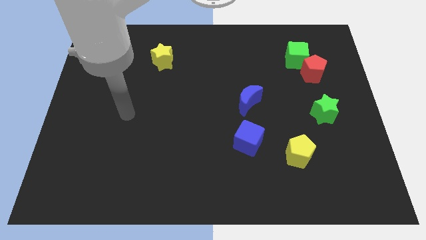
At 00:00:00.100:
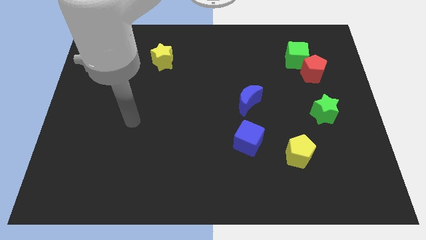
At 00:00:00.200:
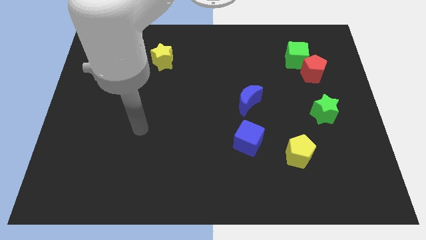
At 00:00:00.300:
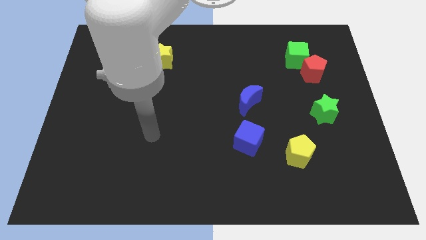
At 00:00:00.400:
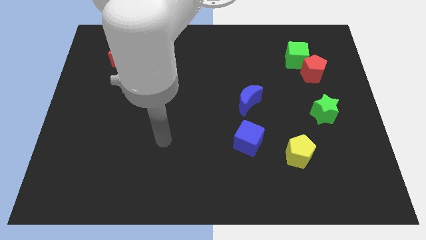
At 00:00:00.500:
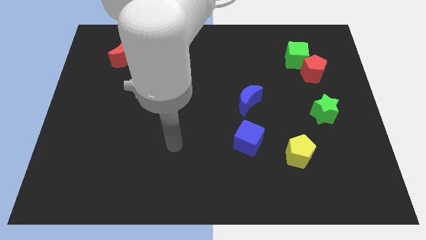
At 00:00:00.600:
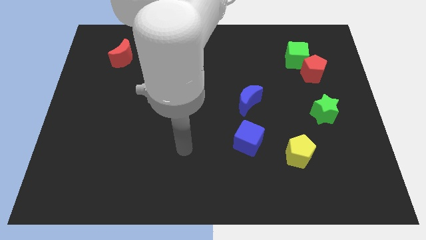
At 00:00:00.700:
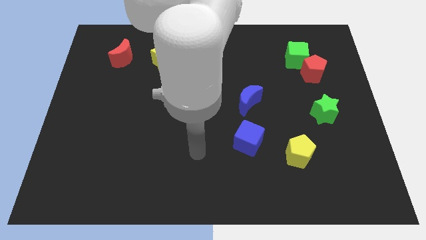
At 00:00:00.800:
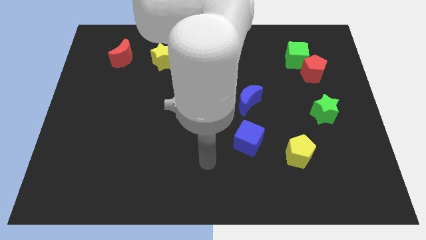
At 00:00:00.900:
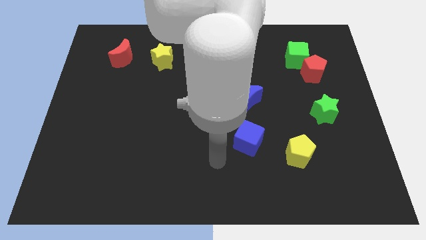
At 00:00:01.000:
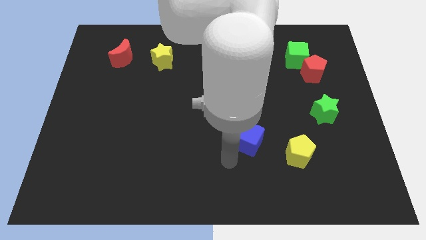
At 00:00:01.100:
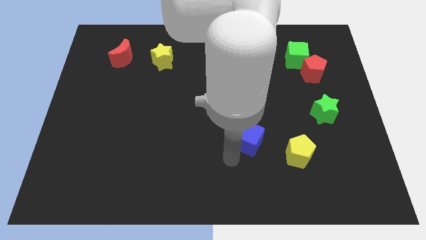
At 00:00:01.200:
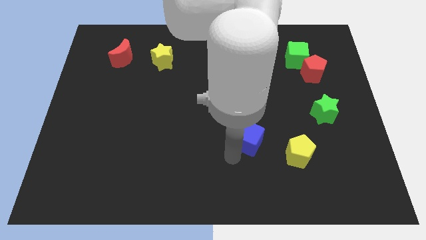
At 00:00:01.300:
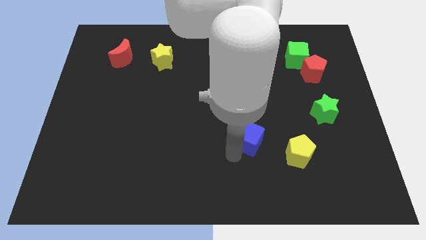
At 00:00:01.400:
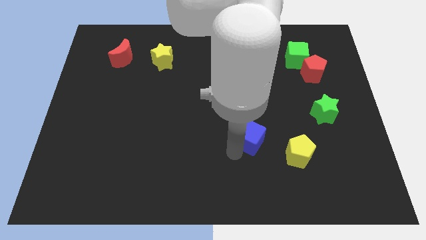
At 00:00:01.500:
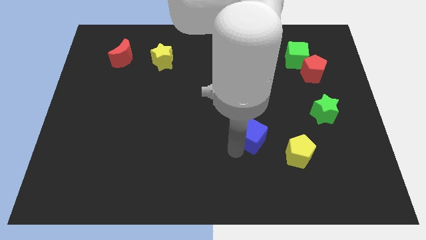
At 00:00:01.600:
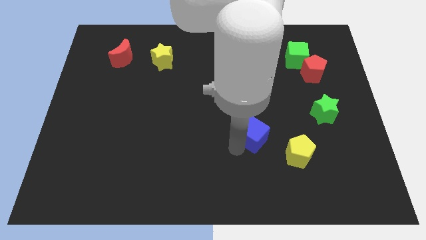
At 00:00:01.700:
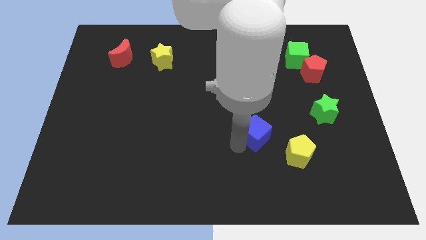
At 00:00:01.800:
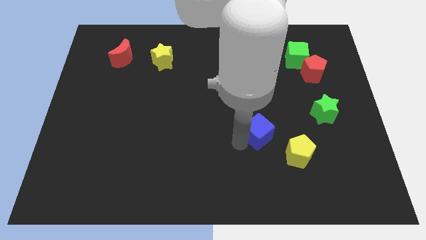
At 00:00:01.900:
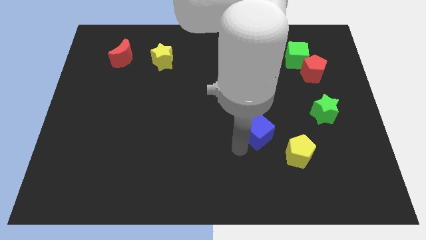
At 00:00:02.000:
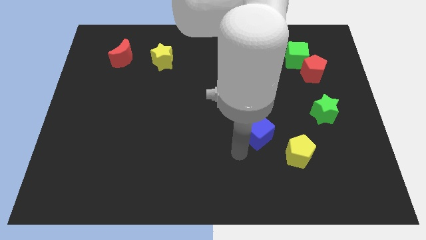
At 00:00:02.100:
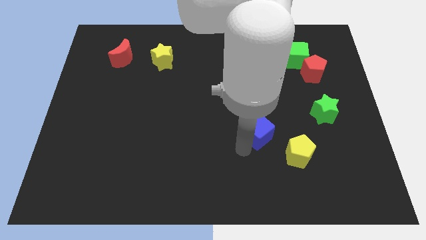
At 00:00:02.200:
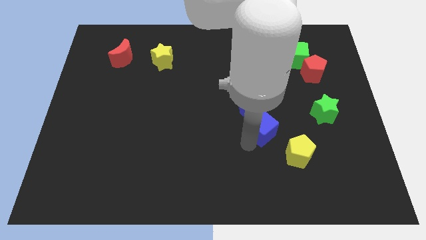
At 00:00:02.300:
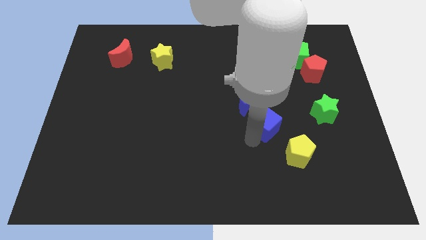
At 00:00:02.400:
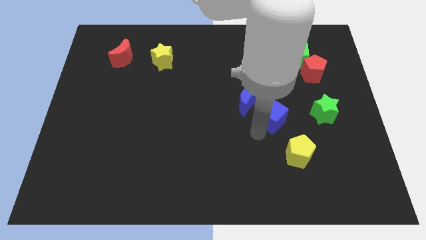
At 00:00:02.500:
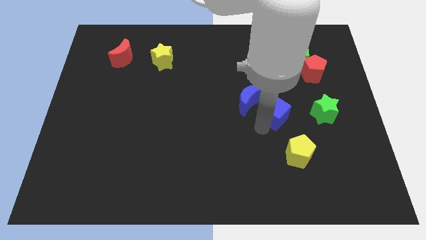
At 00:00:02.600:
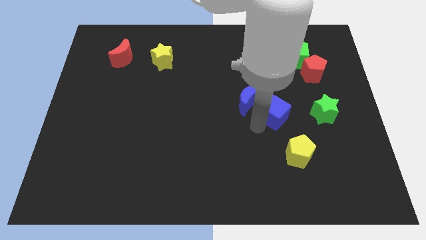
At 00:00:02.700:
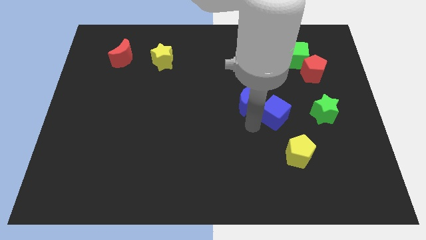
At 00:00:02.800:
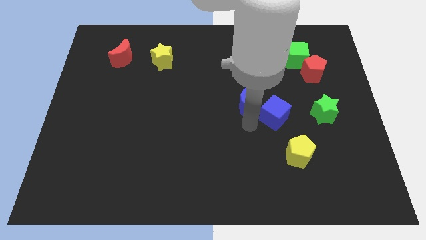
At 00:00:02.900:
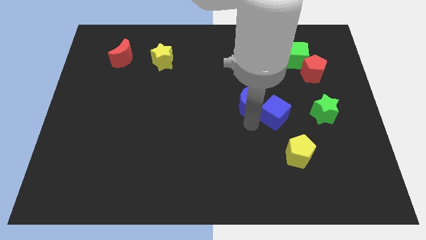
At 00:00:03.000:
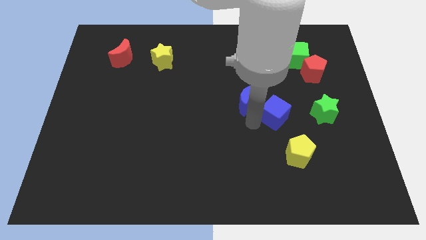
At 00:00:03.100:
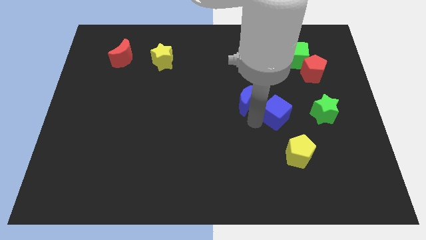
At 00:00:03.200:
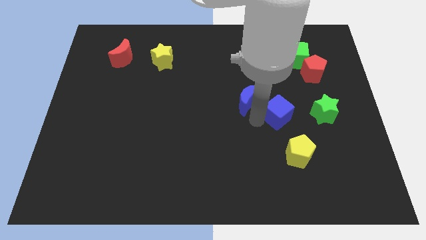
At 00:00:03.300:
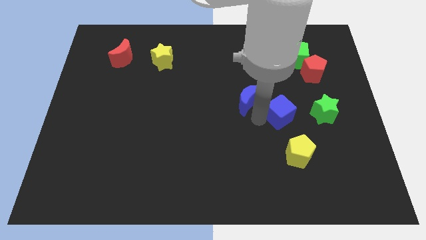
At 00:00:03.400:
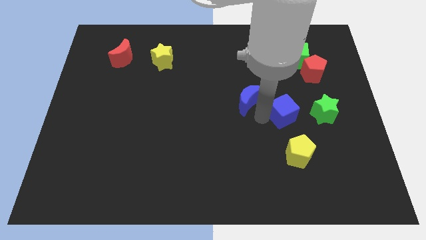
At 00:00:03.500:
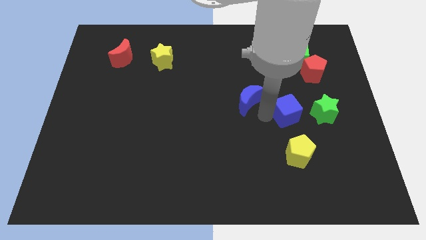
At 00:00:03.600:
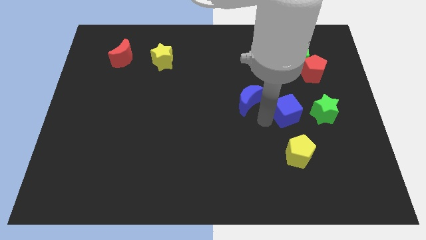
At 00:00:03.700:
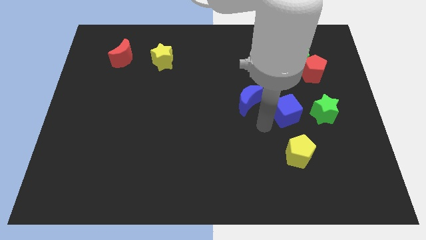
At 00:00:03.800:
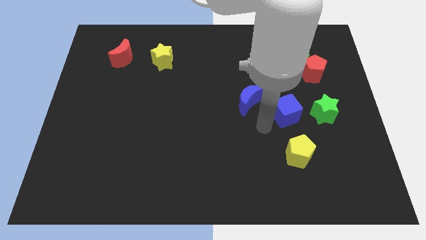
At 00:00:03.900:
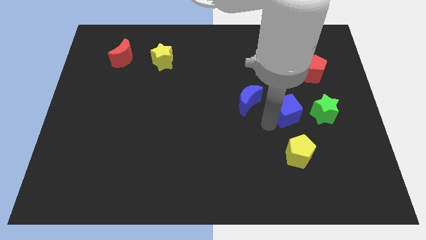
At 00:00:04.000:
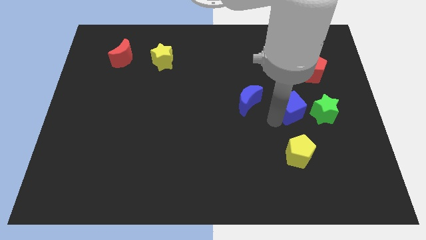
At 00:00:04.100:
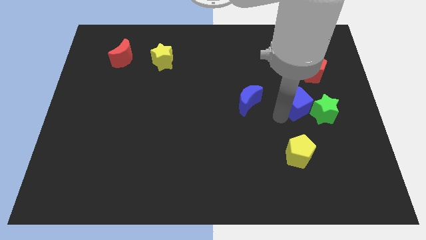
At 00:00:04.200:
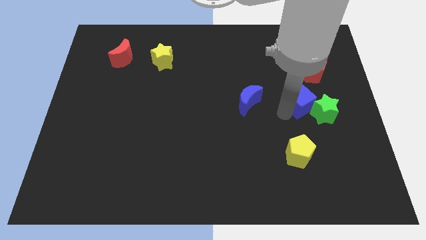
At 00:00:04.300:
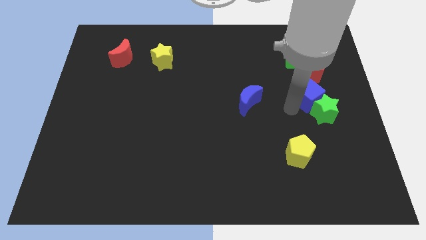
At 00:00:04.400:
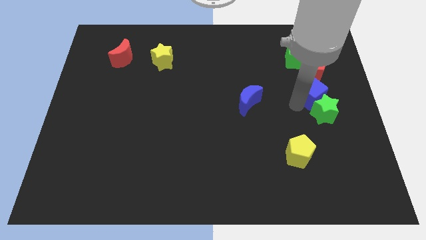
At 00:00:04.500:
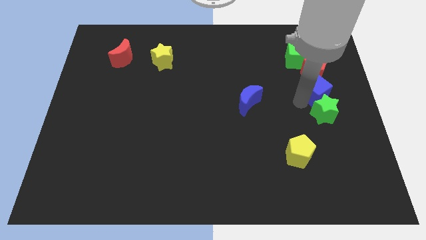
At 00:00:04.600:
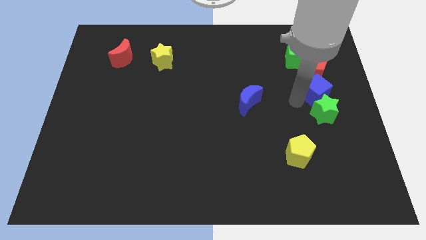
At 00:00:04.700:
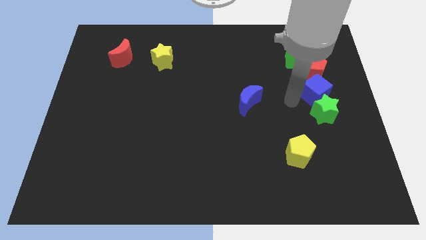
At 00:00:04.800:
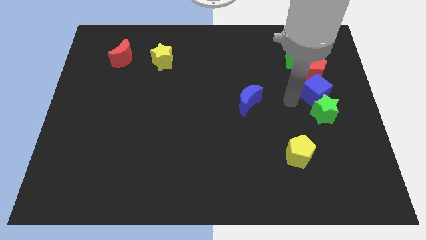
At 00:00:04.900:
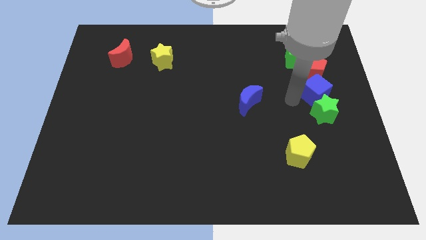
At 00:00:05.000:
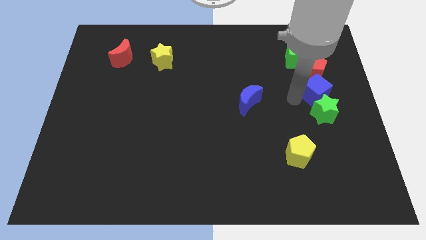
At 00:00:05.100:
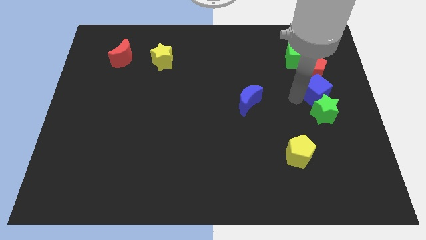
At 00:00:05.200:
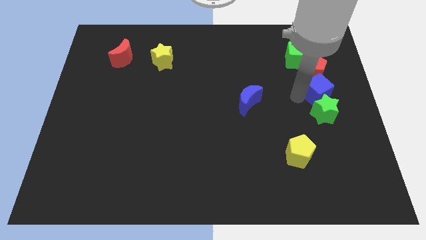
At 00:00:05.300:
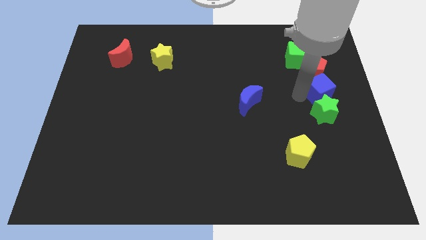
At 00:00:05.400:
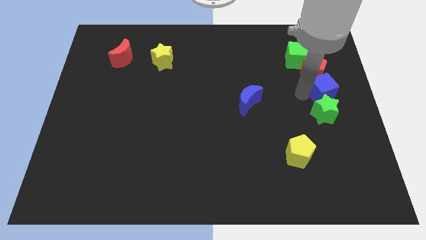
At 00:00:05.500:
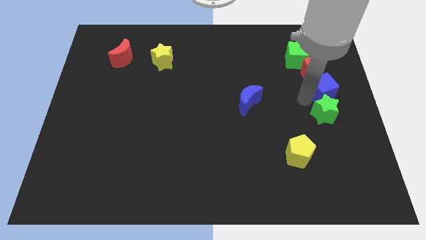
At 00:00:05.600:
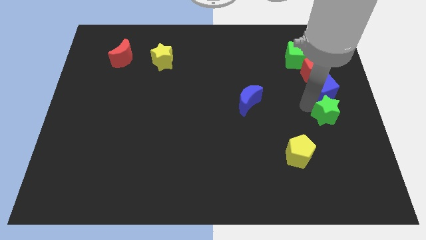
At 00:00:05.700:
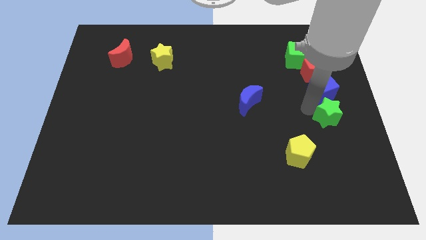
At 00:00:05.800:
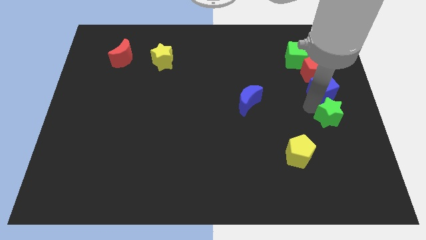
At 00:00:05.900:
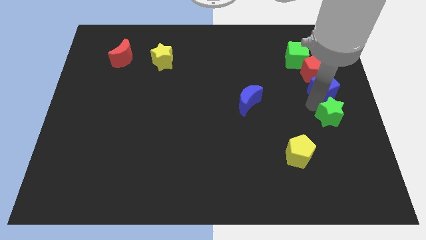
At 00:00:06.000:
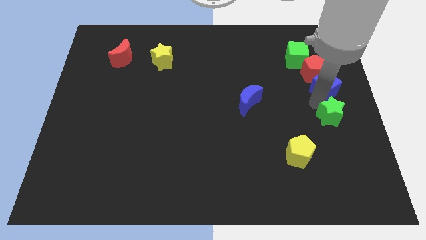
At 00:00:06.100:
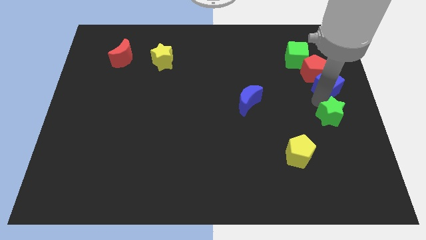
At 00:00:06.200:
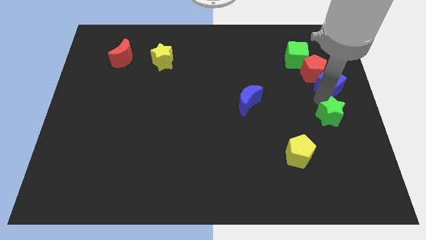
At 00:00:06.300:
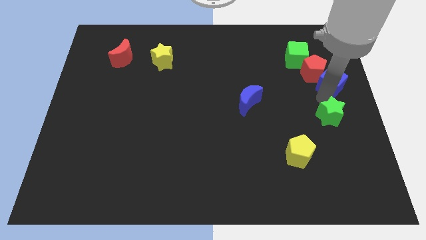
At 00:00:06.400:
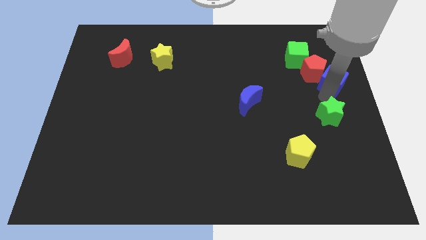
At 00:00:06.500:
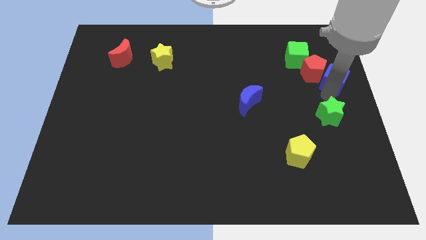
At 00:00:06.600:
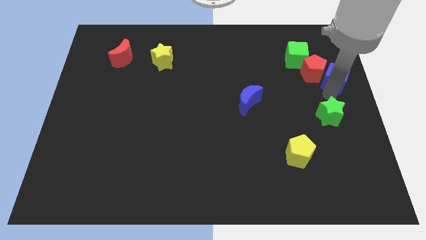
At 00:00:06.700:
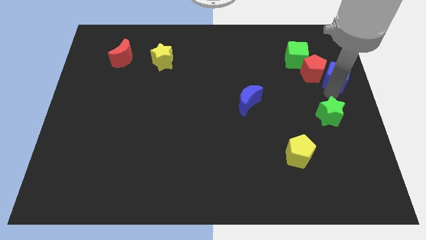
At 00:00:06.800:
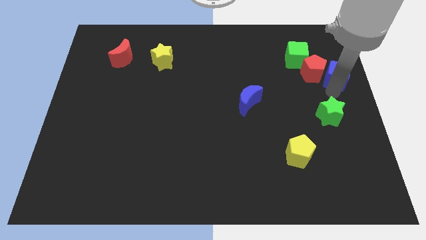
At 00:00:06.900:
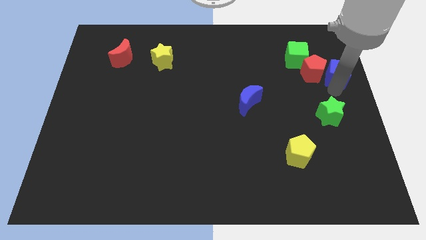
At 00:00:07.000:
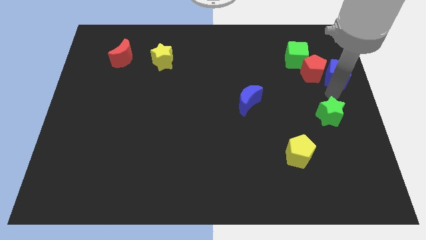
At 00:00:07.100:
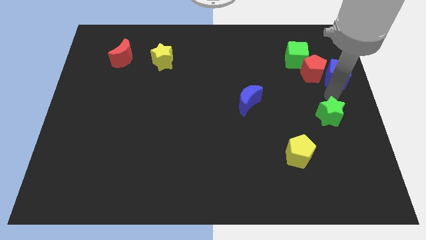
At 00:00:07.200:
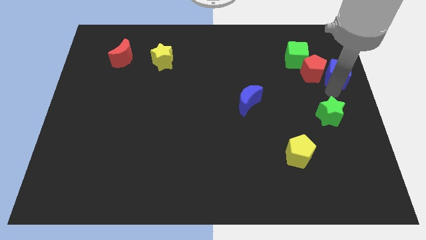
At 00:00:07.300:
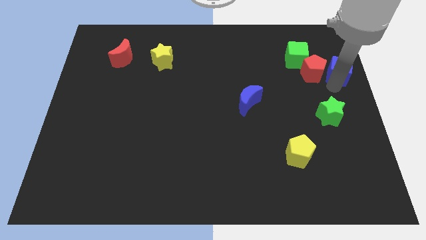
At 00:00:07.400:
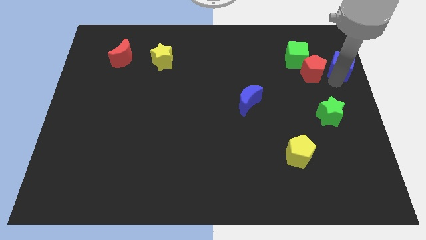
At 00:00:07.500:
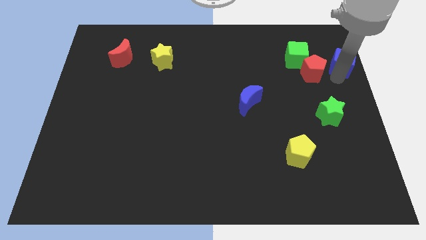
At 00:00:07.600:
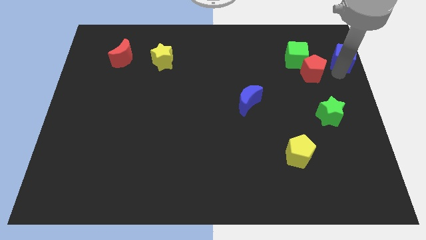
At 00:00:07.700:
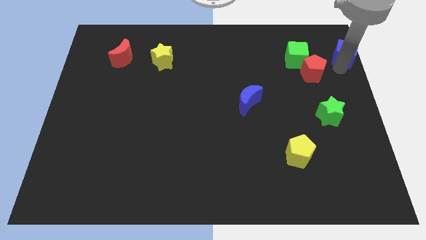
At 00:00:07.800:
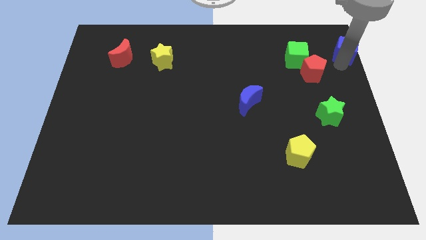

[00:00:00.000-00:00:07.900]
slide the blue cube to the top right
